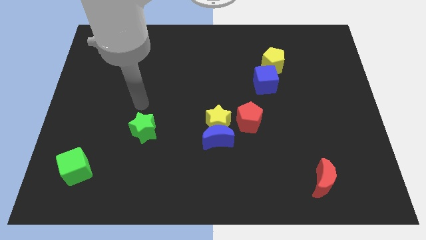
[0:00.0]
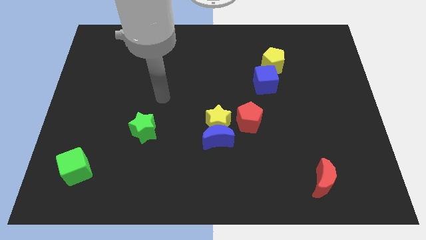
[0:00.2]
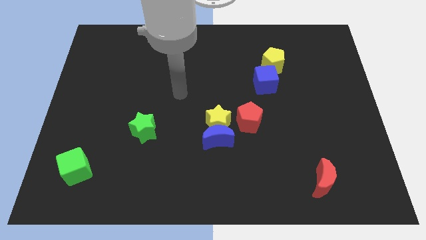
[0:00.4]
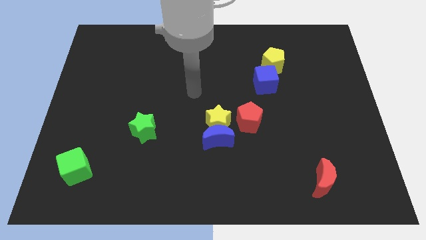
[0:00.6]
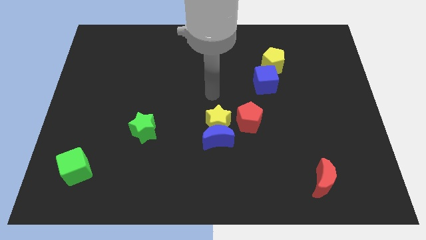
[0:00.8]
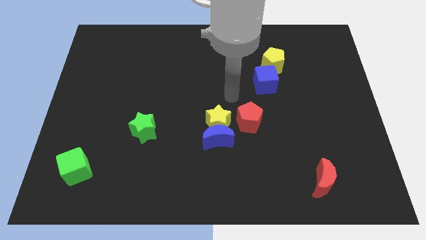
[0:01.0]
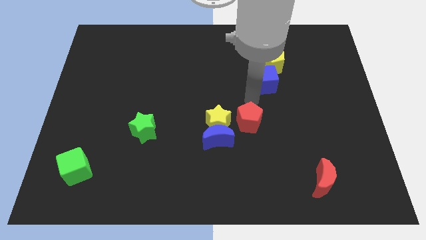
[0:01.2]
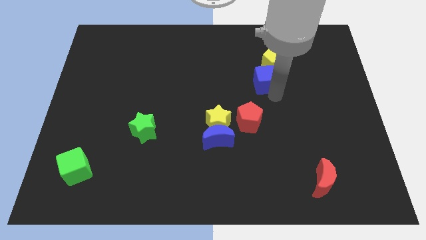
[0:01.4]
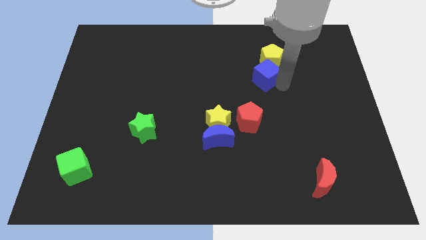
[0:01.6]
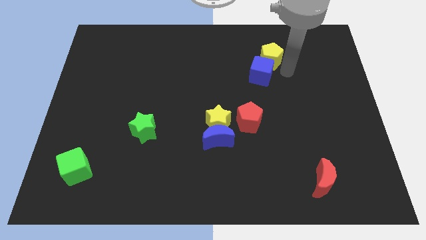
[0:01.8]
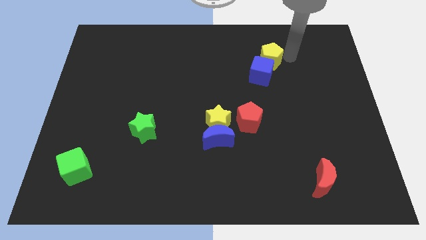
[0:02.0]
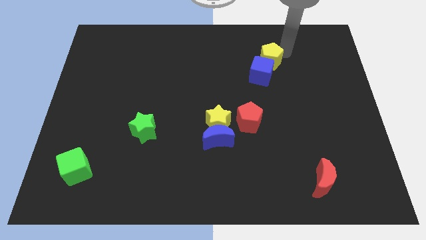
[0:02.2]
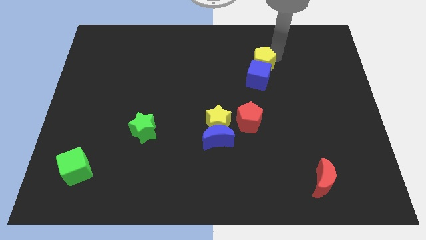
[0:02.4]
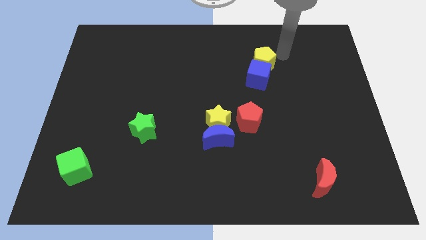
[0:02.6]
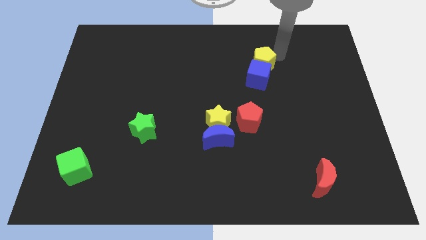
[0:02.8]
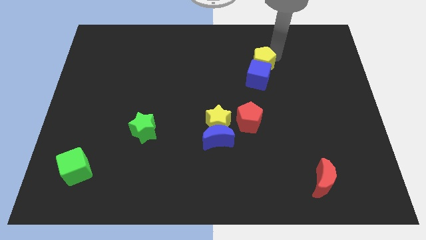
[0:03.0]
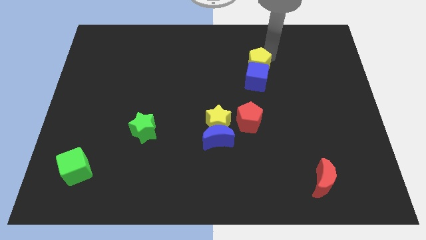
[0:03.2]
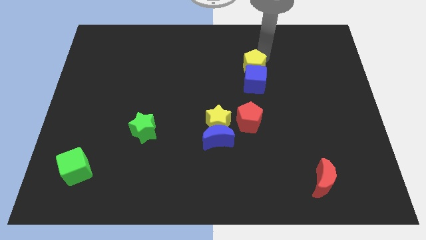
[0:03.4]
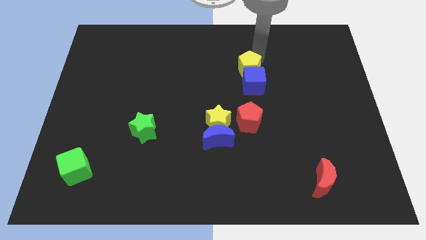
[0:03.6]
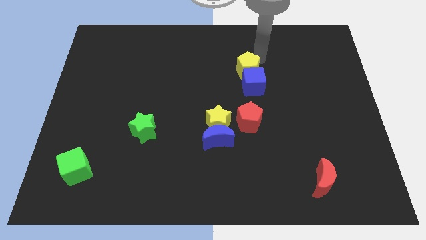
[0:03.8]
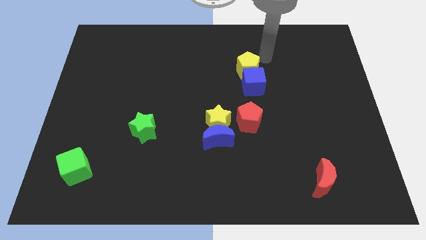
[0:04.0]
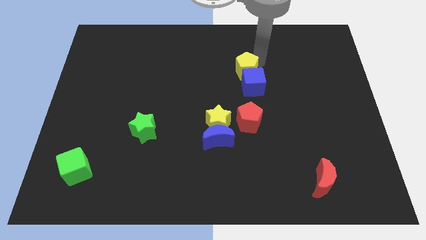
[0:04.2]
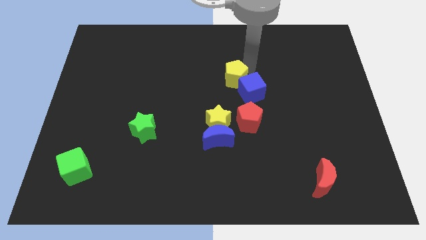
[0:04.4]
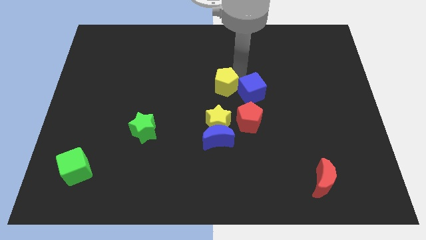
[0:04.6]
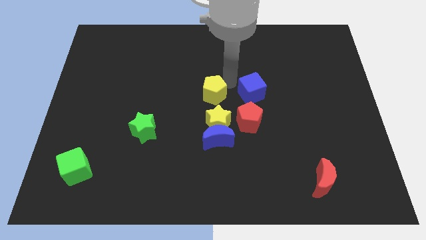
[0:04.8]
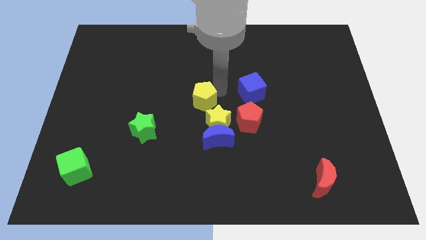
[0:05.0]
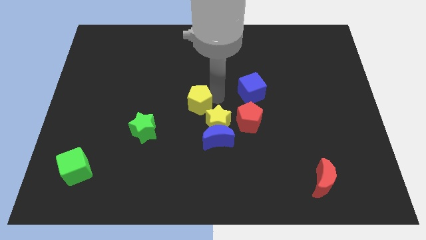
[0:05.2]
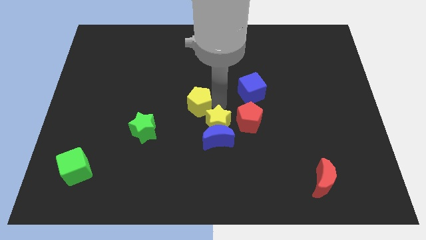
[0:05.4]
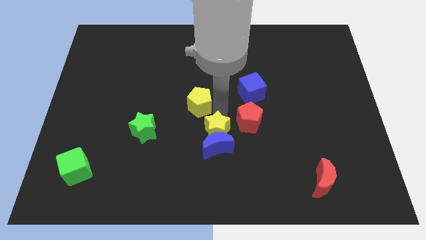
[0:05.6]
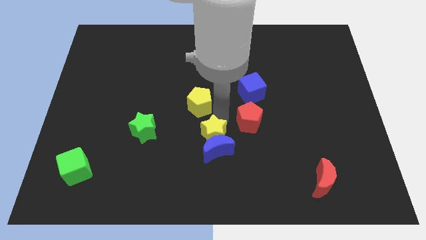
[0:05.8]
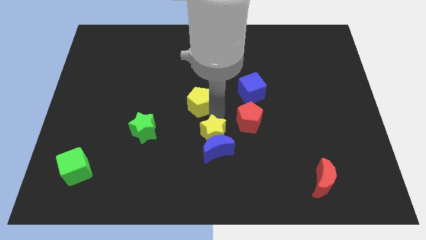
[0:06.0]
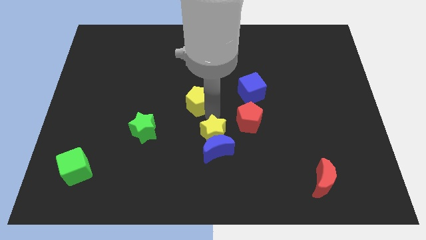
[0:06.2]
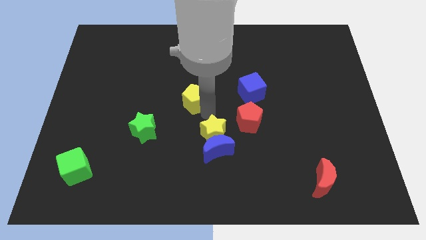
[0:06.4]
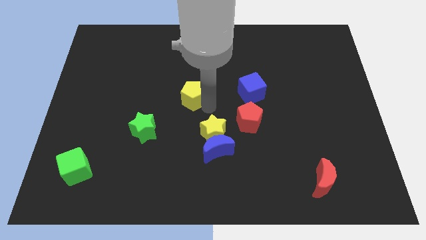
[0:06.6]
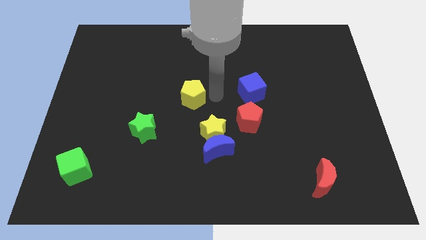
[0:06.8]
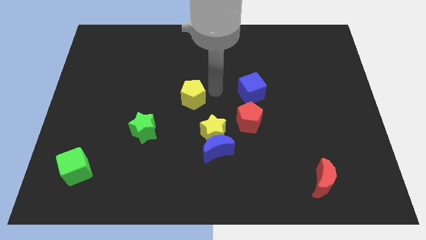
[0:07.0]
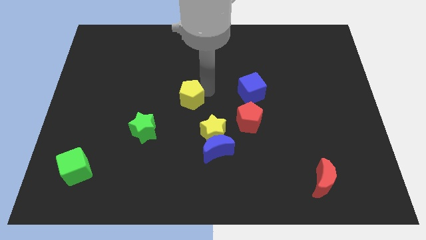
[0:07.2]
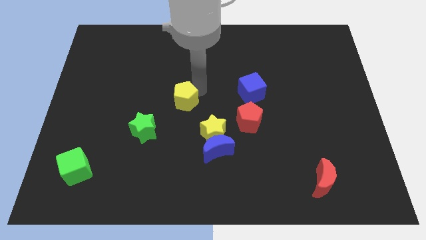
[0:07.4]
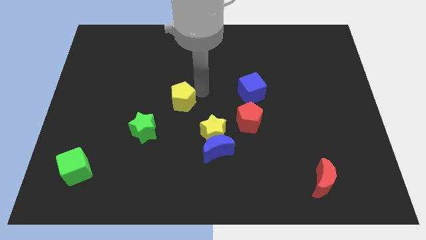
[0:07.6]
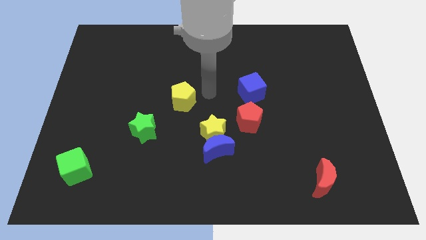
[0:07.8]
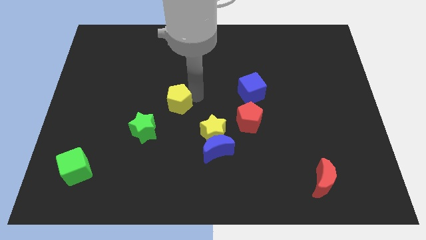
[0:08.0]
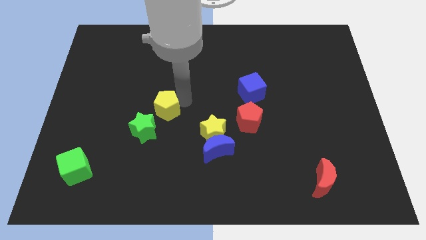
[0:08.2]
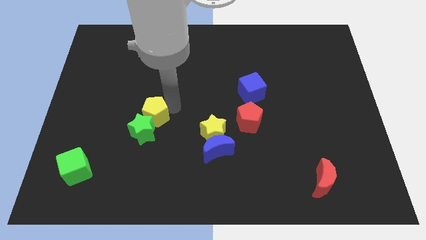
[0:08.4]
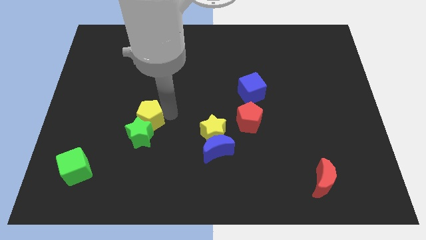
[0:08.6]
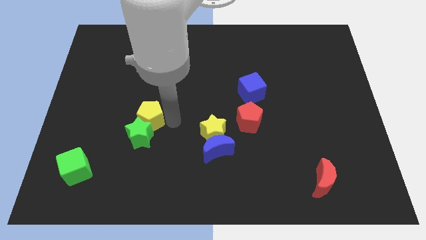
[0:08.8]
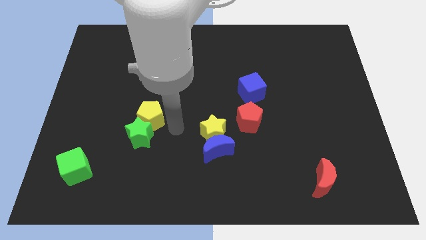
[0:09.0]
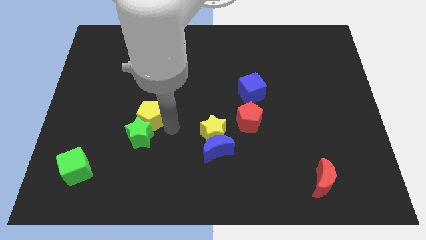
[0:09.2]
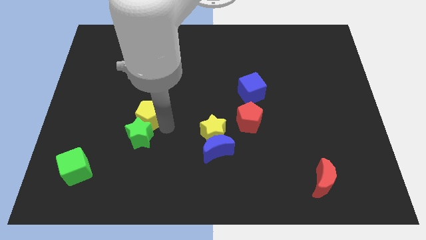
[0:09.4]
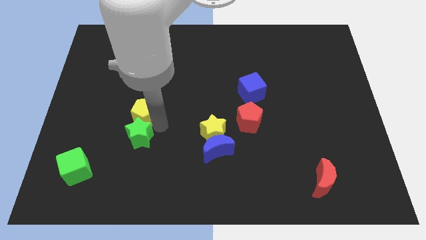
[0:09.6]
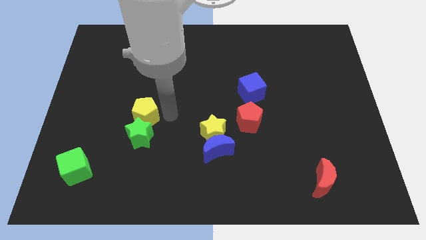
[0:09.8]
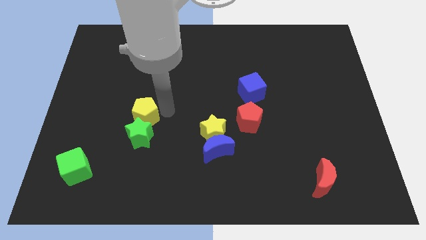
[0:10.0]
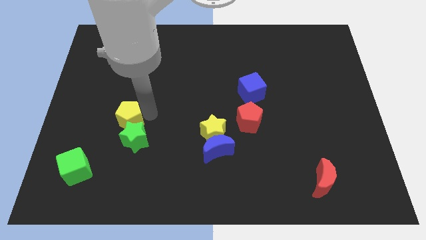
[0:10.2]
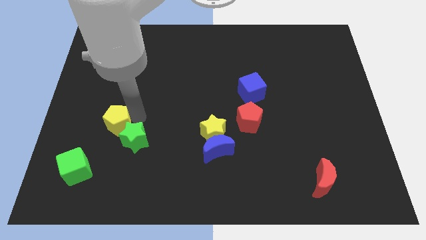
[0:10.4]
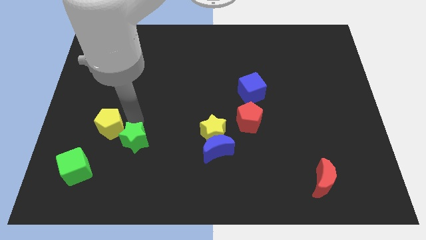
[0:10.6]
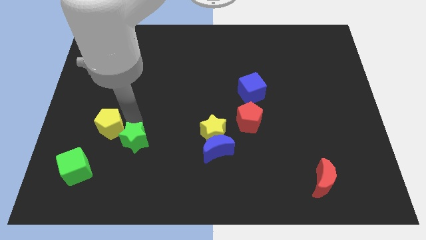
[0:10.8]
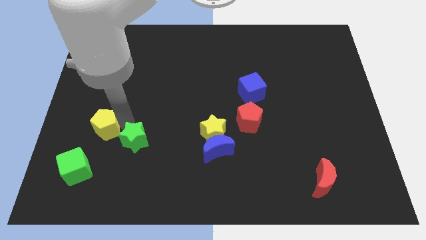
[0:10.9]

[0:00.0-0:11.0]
push the yellow pentagon to the top of the green cube

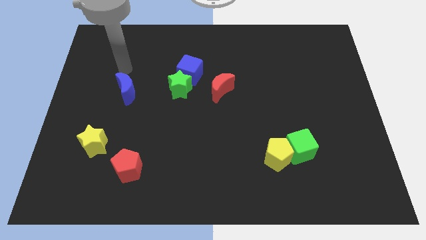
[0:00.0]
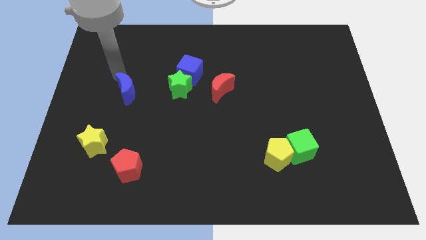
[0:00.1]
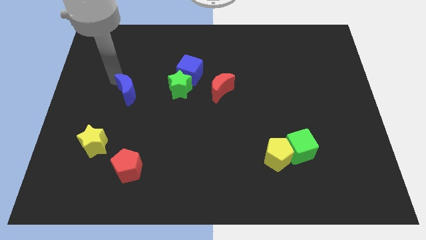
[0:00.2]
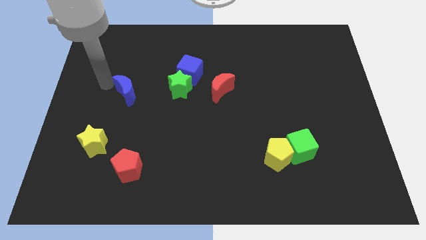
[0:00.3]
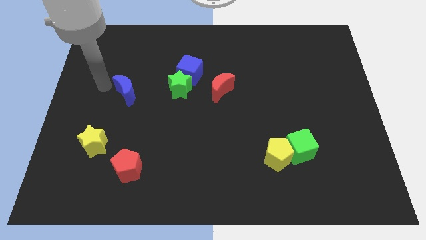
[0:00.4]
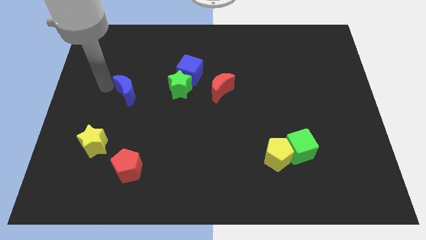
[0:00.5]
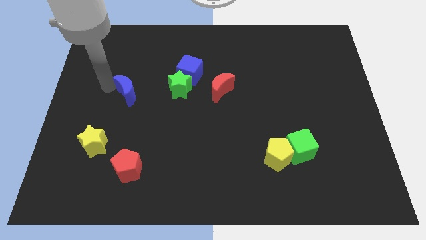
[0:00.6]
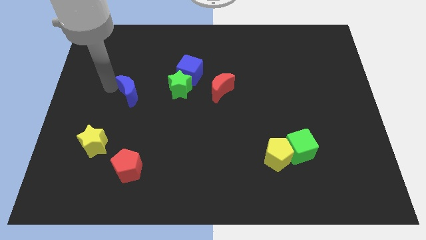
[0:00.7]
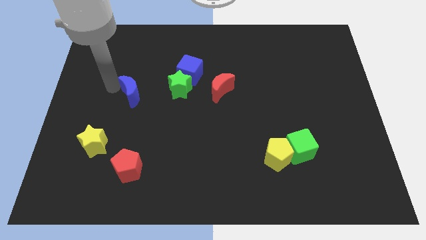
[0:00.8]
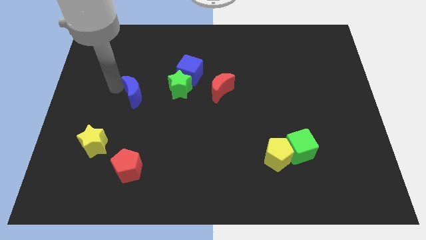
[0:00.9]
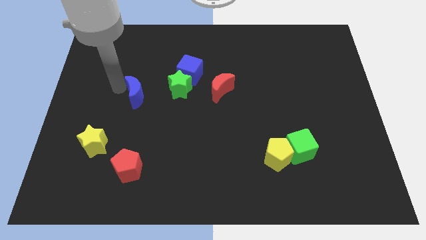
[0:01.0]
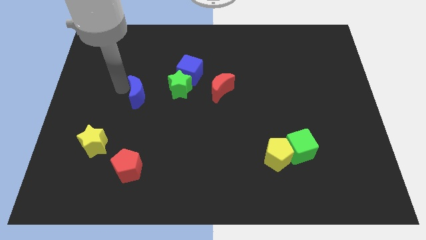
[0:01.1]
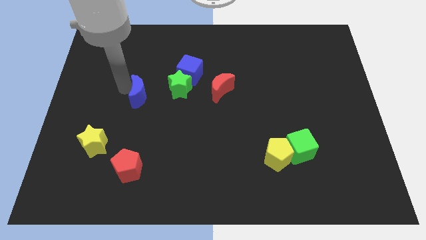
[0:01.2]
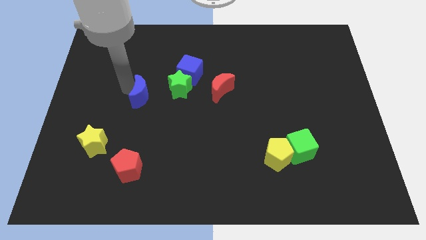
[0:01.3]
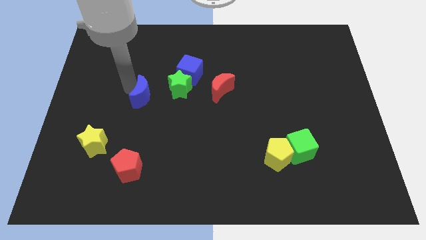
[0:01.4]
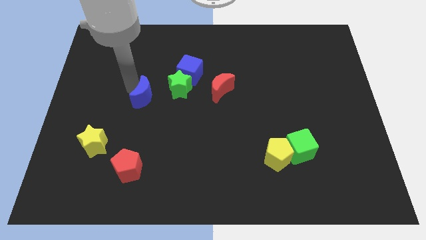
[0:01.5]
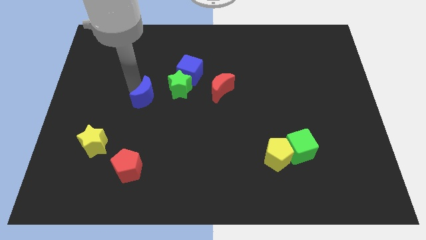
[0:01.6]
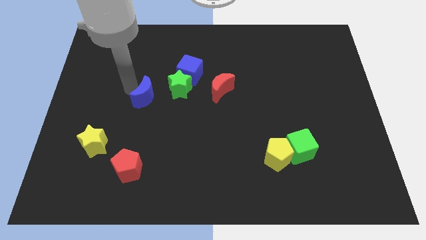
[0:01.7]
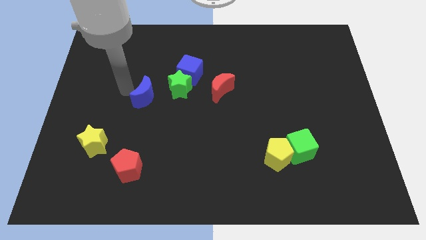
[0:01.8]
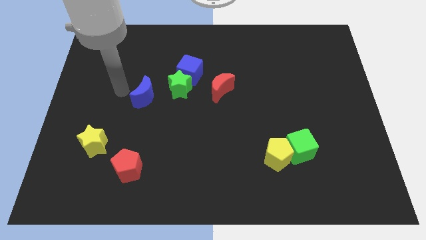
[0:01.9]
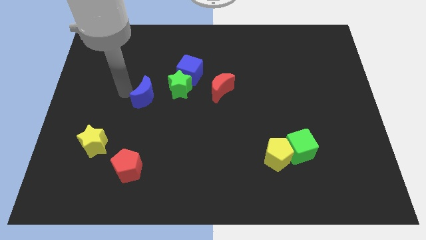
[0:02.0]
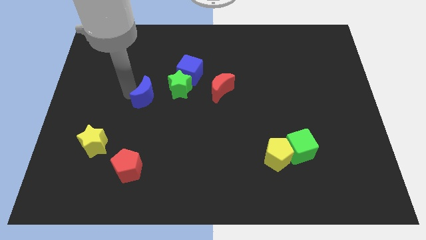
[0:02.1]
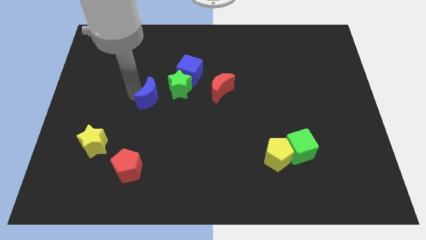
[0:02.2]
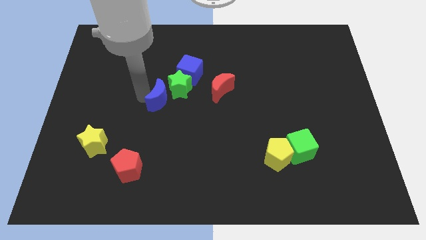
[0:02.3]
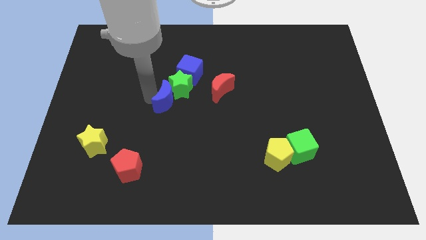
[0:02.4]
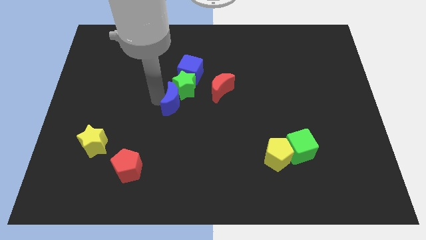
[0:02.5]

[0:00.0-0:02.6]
move the blue moon to the bottom side of the blue cube
